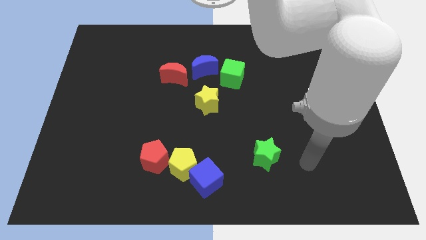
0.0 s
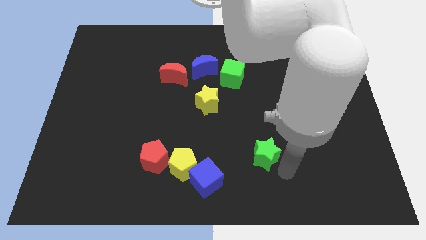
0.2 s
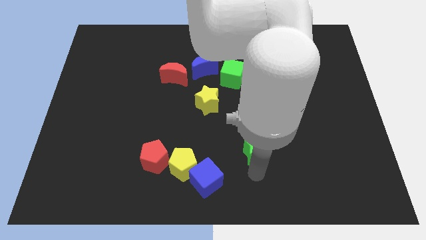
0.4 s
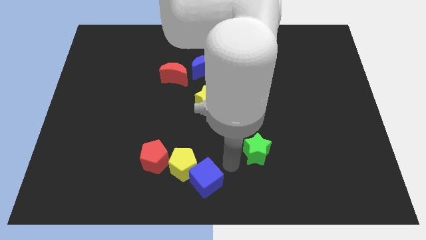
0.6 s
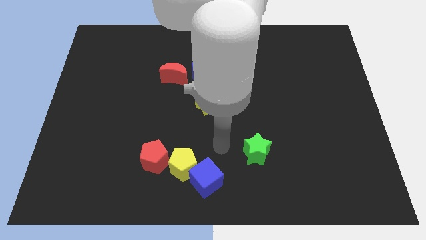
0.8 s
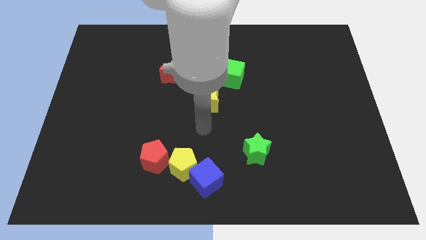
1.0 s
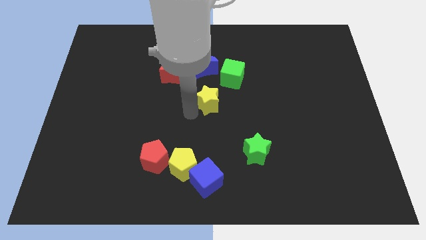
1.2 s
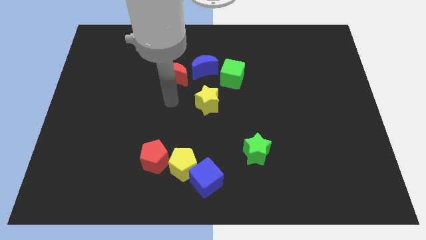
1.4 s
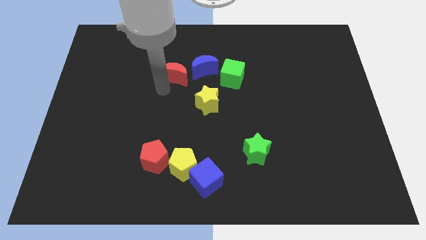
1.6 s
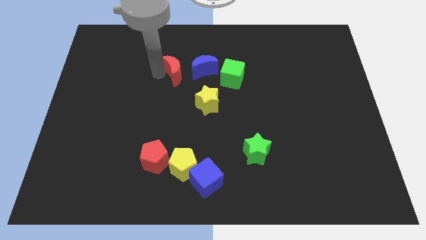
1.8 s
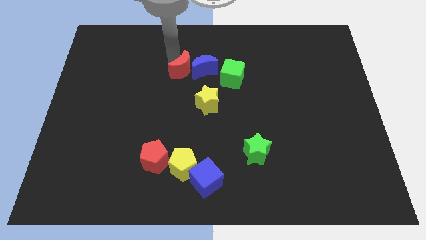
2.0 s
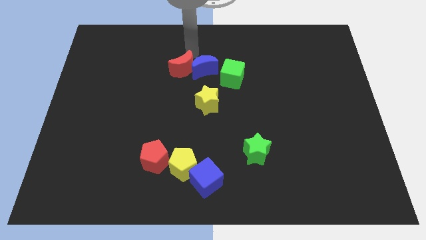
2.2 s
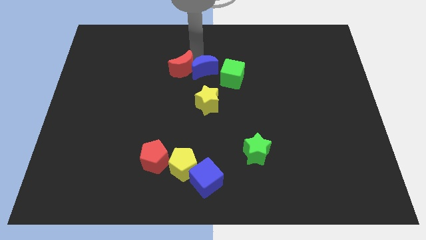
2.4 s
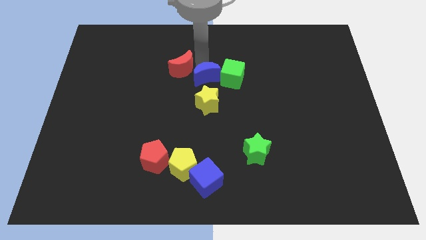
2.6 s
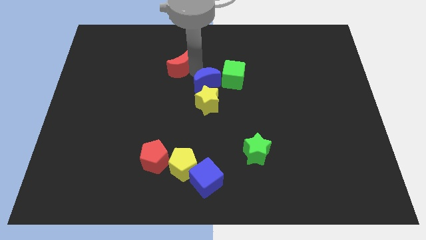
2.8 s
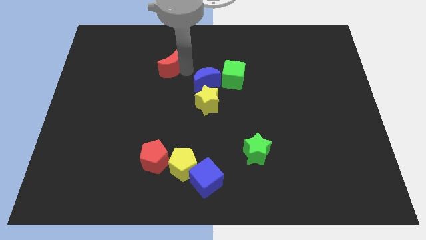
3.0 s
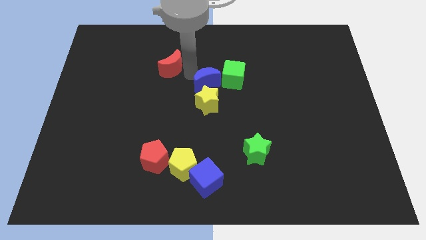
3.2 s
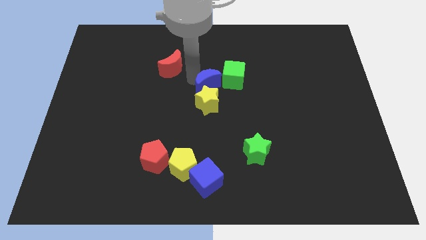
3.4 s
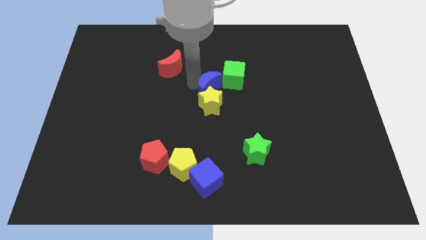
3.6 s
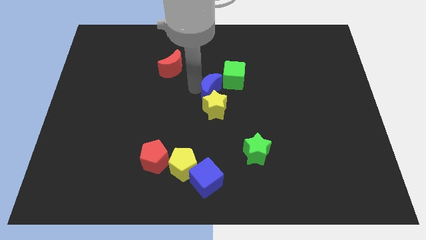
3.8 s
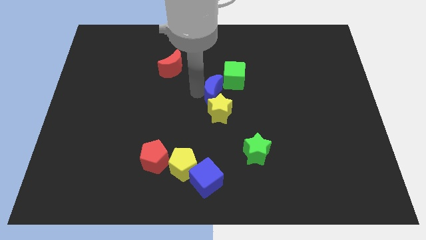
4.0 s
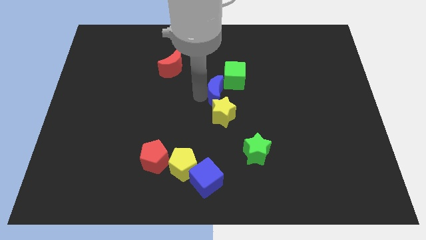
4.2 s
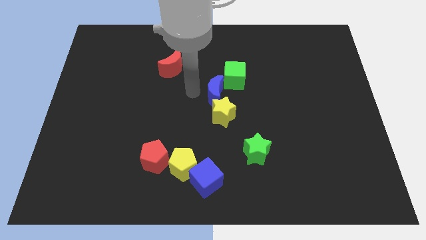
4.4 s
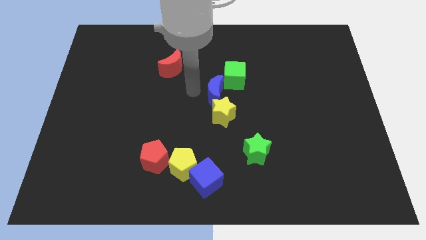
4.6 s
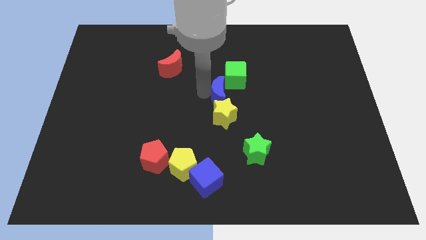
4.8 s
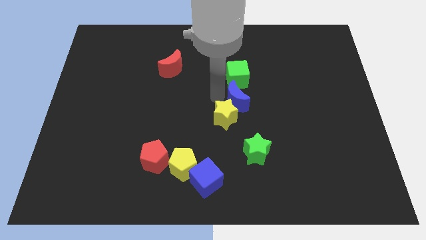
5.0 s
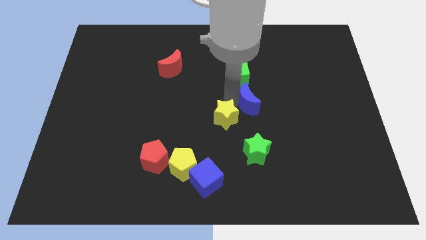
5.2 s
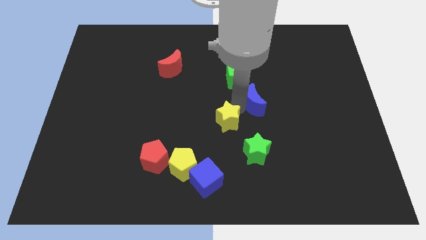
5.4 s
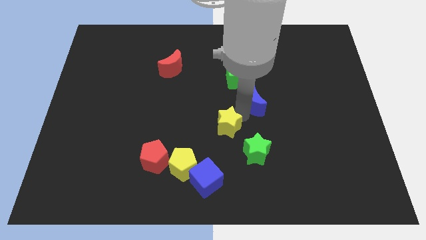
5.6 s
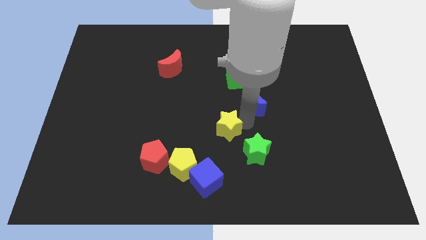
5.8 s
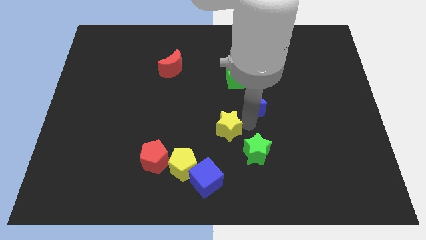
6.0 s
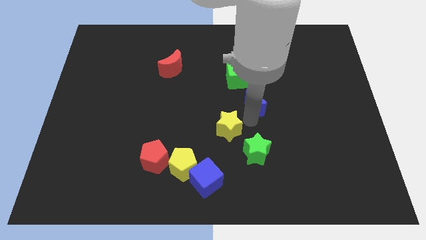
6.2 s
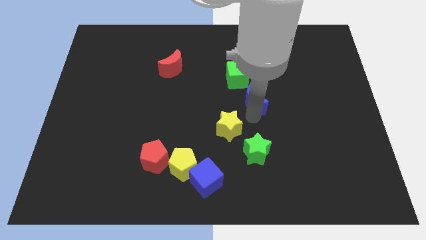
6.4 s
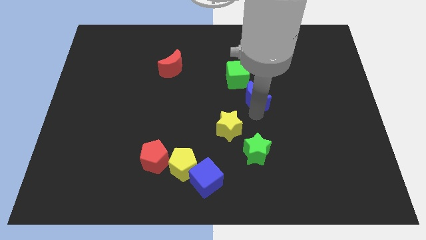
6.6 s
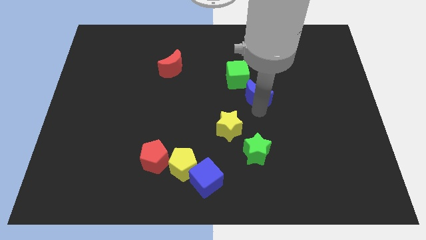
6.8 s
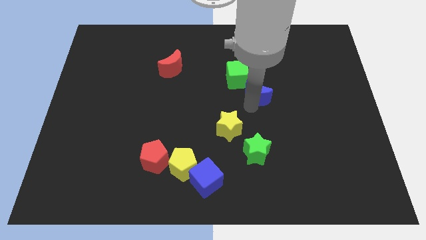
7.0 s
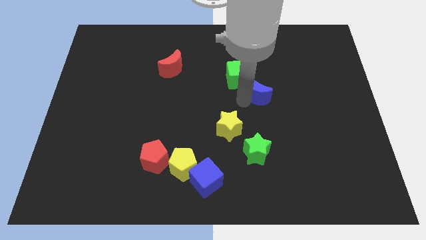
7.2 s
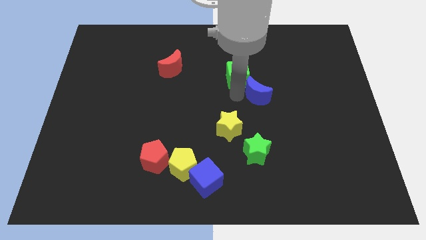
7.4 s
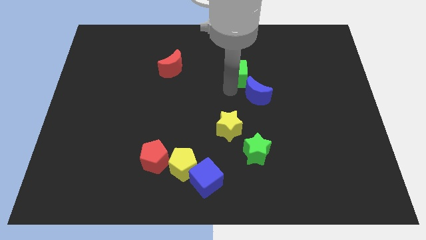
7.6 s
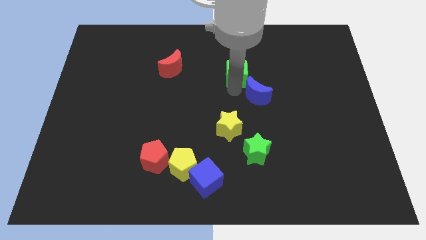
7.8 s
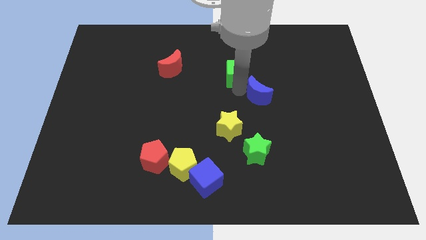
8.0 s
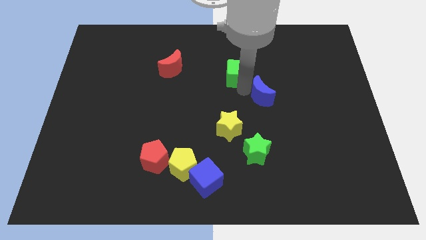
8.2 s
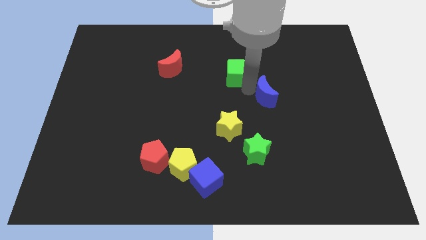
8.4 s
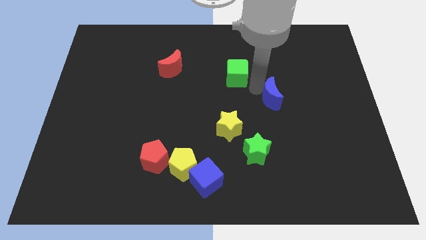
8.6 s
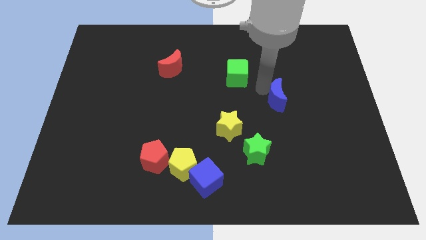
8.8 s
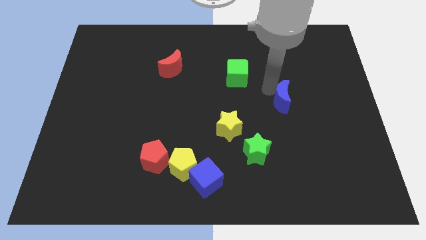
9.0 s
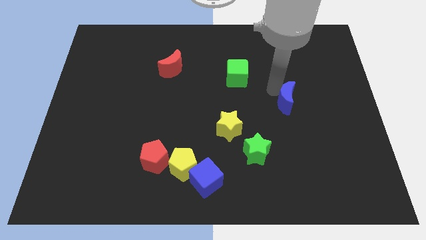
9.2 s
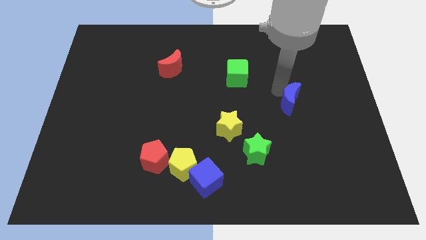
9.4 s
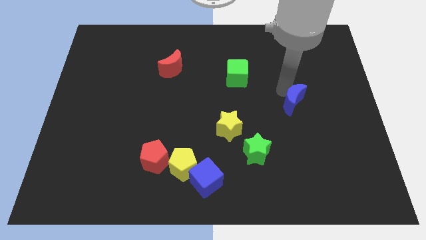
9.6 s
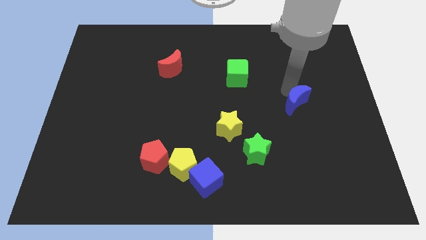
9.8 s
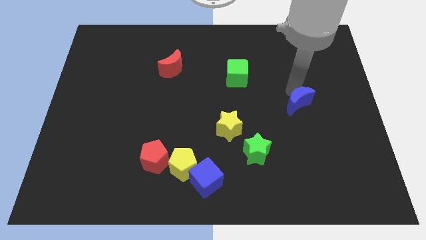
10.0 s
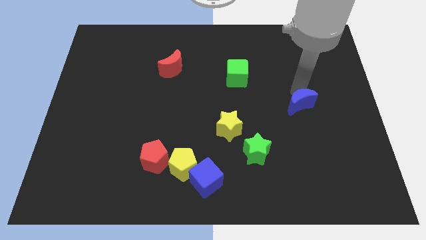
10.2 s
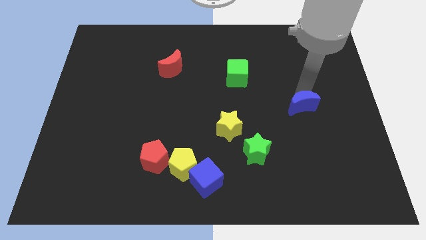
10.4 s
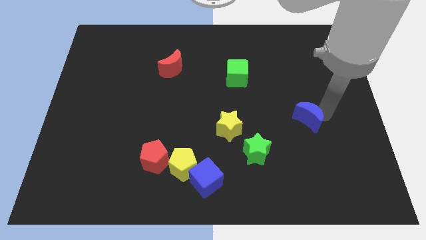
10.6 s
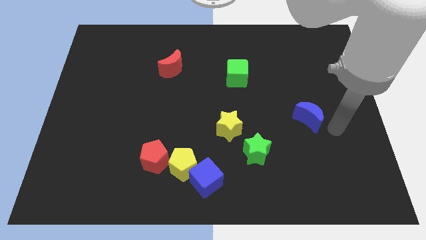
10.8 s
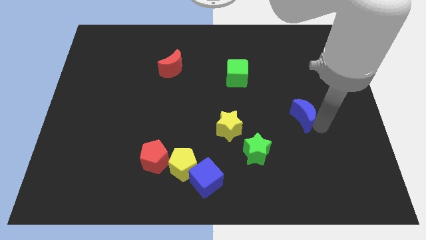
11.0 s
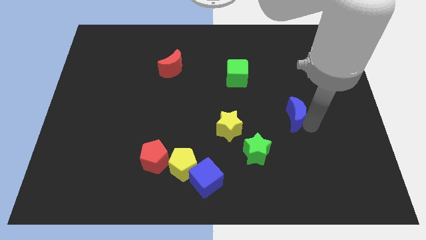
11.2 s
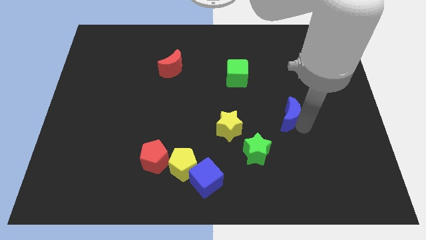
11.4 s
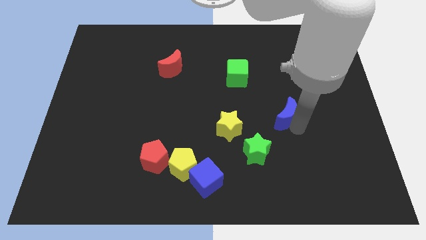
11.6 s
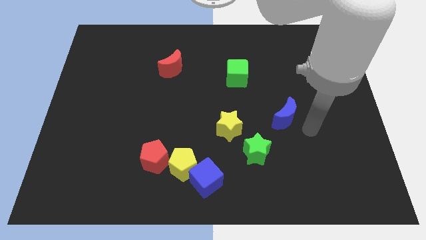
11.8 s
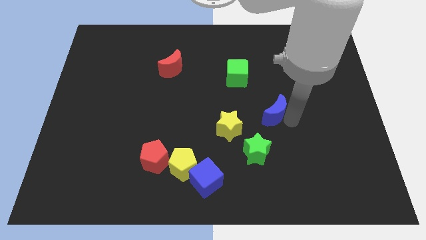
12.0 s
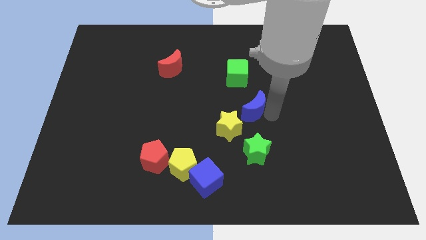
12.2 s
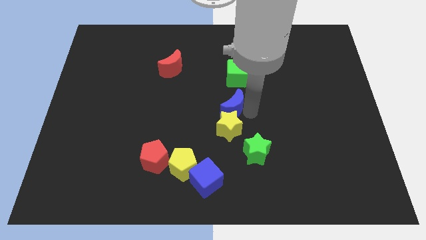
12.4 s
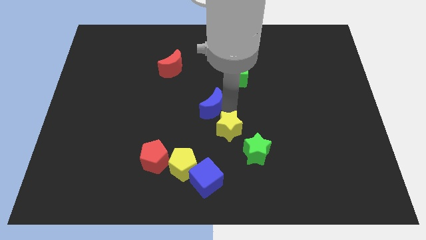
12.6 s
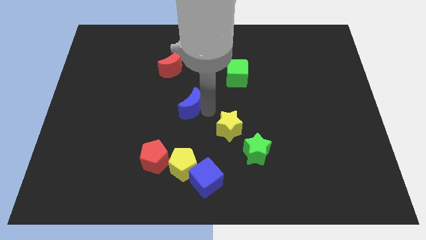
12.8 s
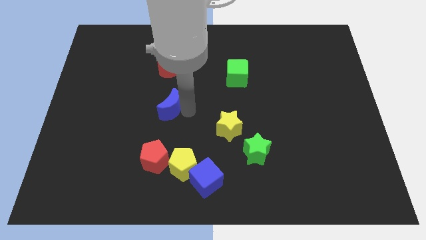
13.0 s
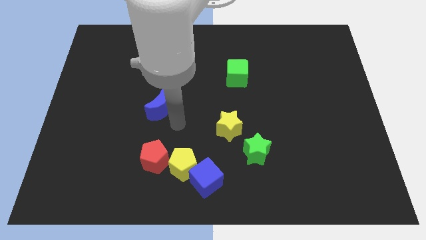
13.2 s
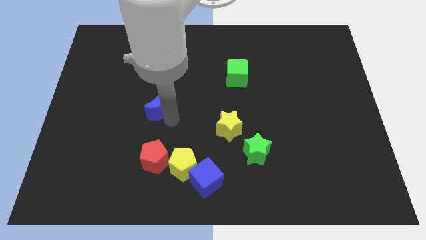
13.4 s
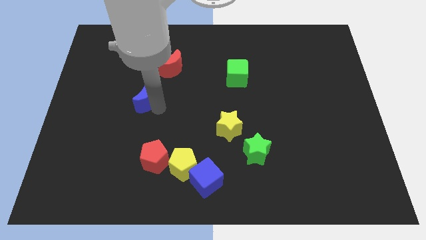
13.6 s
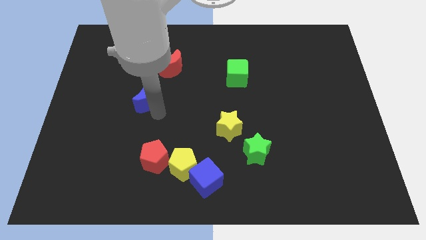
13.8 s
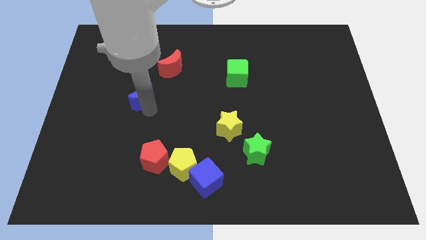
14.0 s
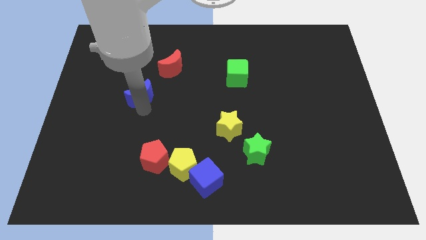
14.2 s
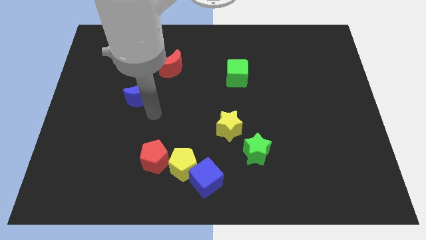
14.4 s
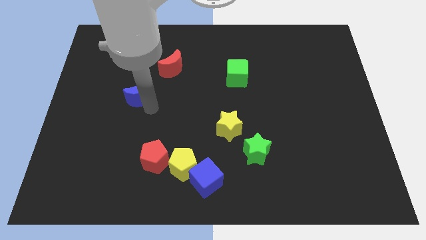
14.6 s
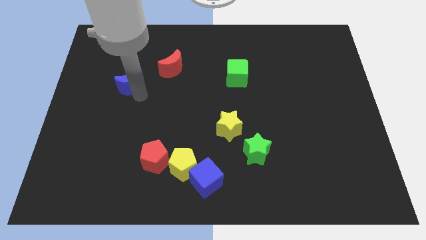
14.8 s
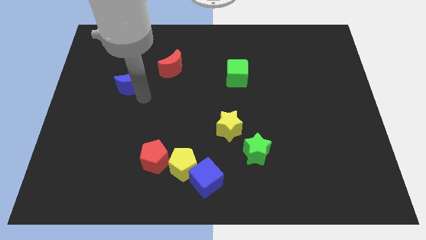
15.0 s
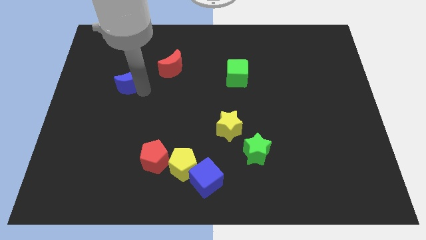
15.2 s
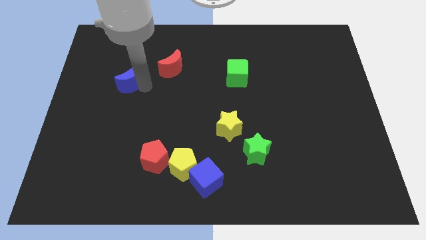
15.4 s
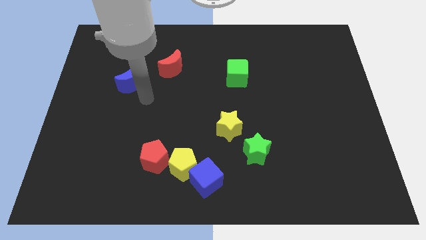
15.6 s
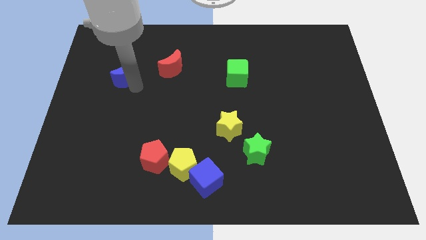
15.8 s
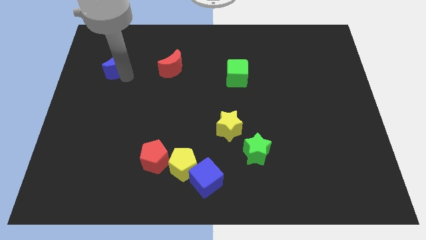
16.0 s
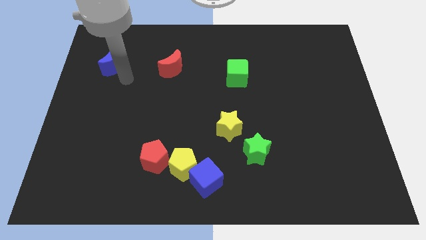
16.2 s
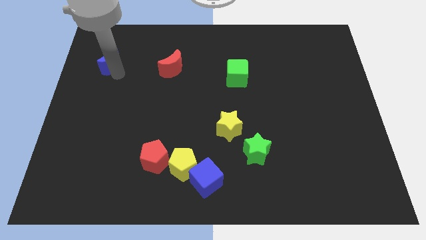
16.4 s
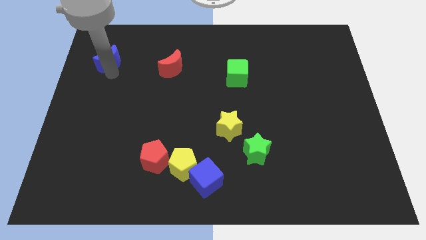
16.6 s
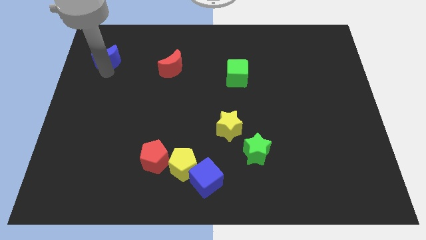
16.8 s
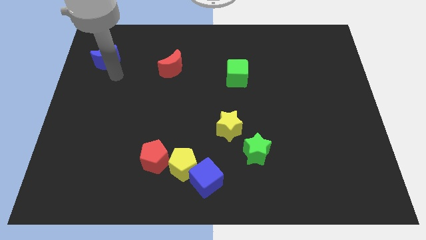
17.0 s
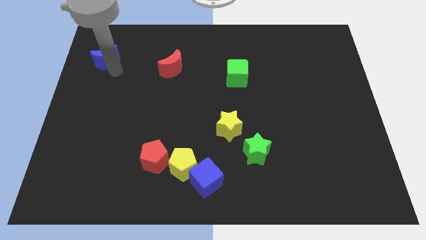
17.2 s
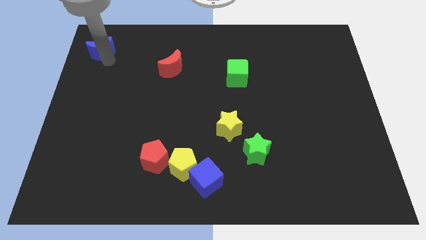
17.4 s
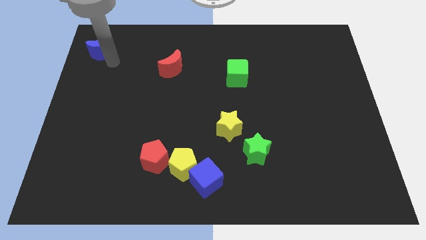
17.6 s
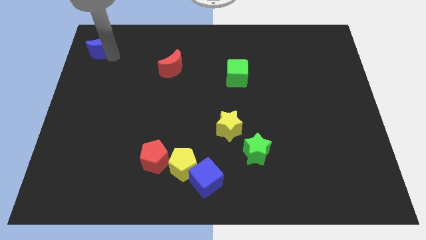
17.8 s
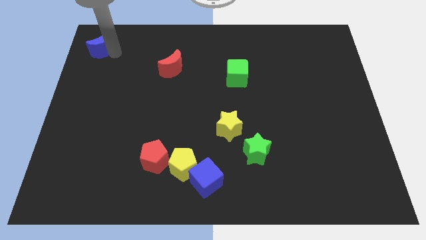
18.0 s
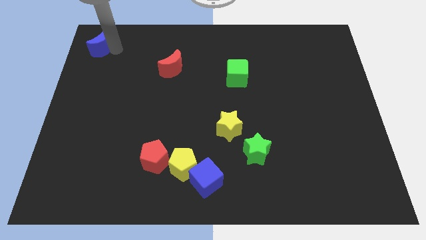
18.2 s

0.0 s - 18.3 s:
move the blue moon to the top left of the board
